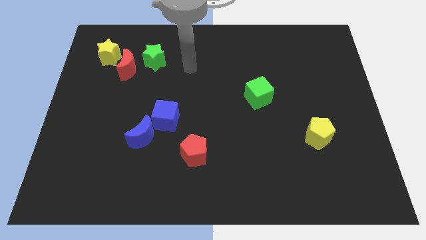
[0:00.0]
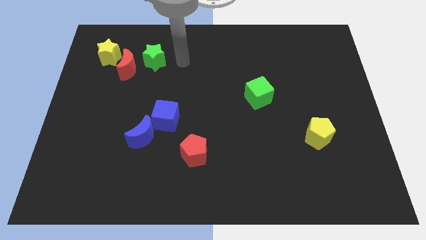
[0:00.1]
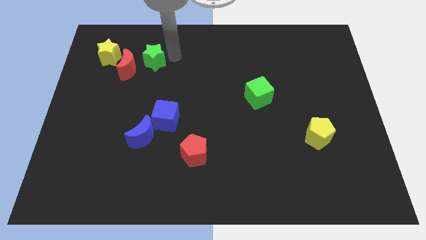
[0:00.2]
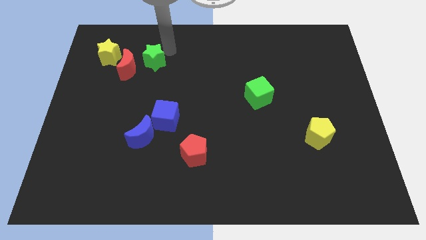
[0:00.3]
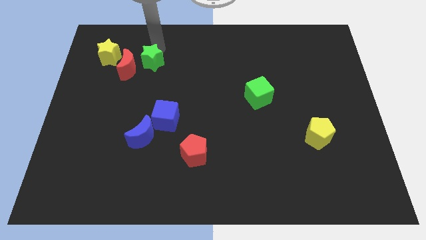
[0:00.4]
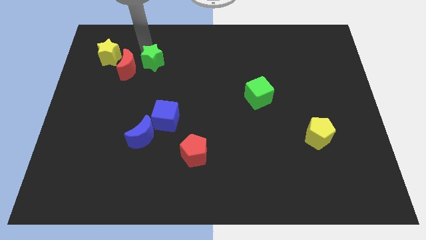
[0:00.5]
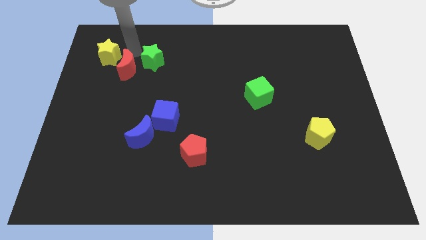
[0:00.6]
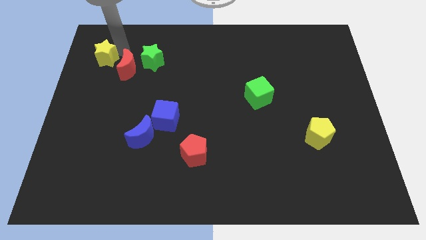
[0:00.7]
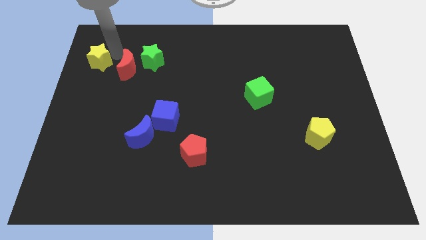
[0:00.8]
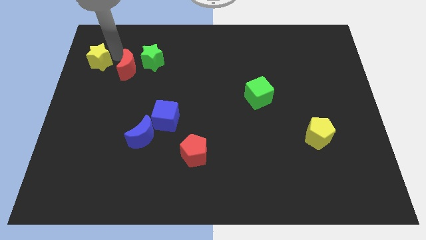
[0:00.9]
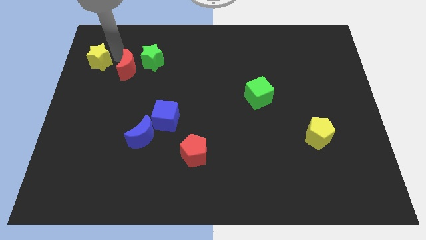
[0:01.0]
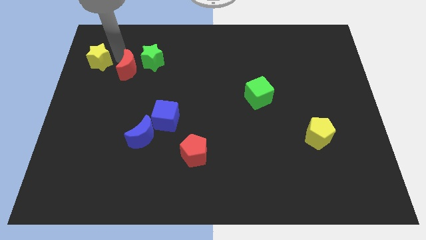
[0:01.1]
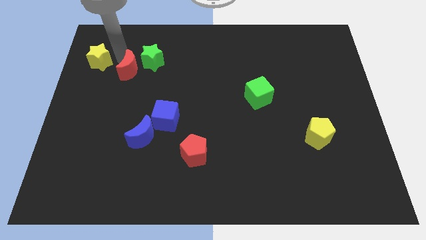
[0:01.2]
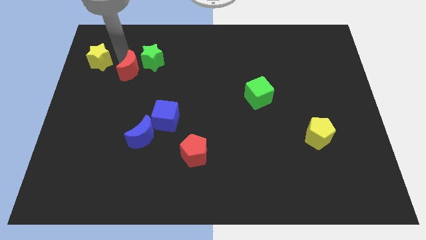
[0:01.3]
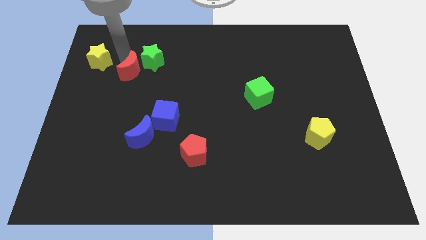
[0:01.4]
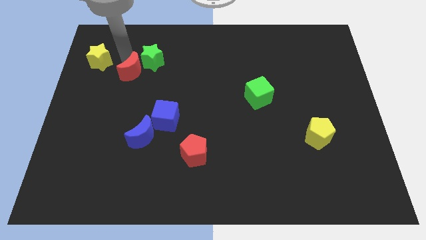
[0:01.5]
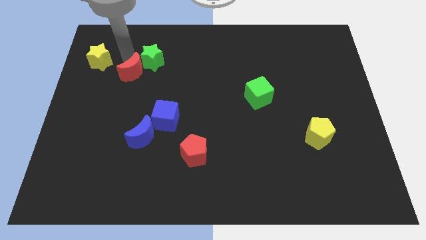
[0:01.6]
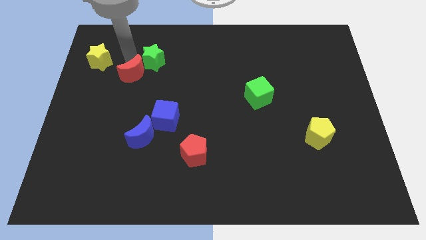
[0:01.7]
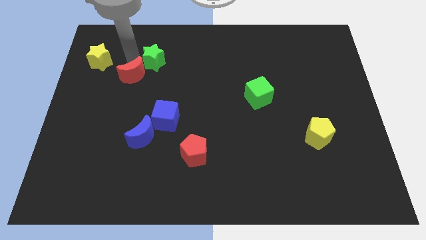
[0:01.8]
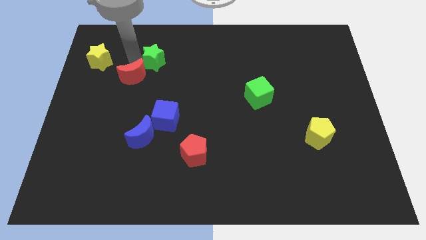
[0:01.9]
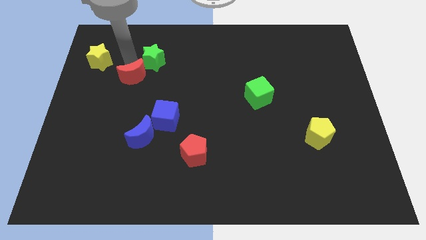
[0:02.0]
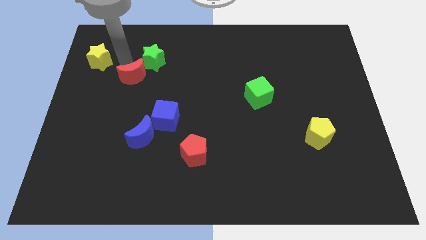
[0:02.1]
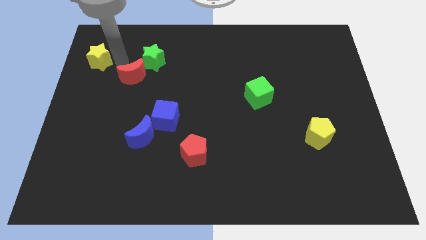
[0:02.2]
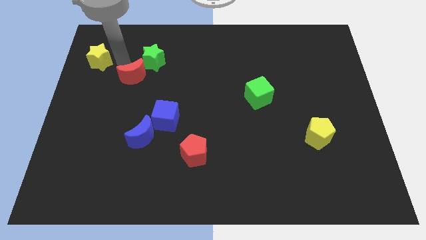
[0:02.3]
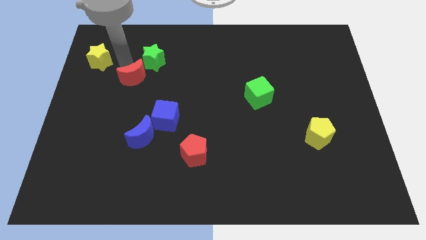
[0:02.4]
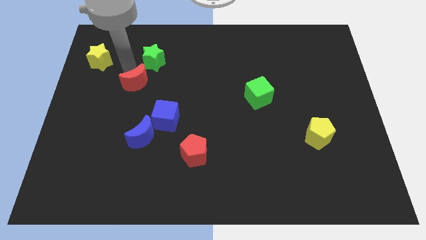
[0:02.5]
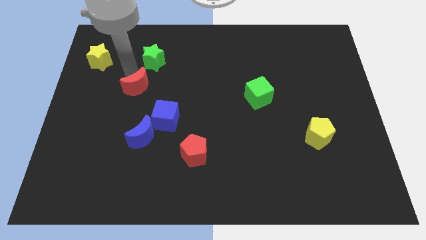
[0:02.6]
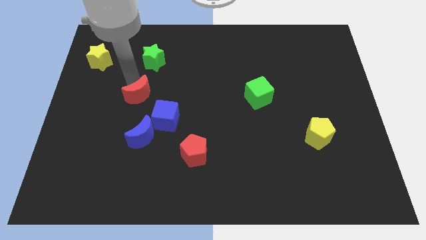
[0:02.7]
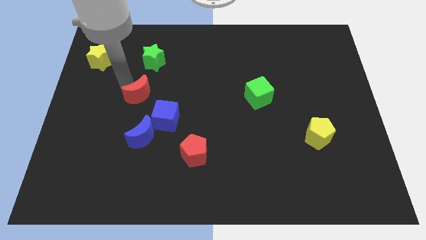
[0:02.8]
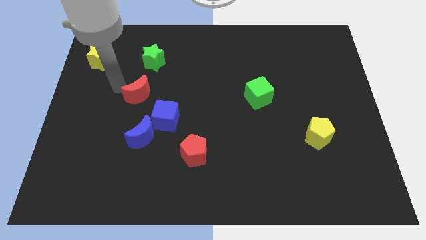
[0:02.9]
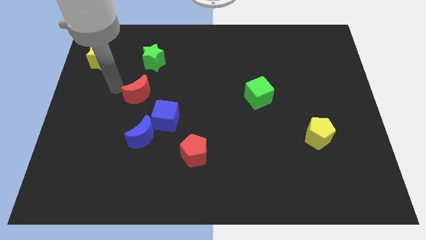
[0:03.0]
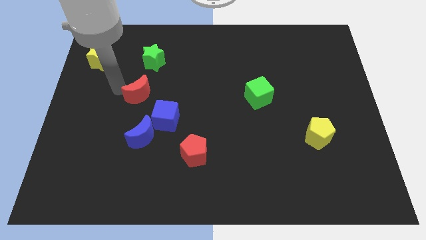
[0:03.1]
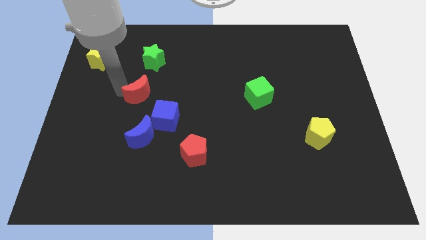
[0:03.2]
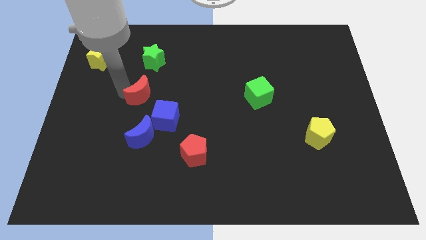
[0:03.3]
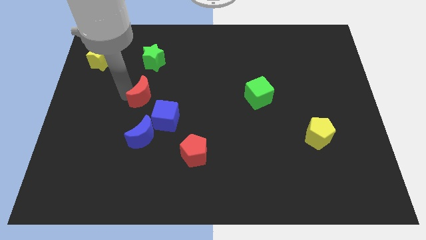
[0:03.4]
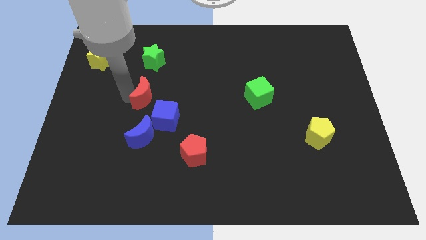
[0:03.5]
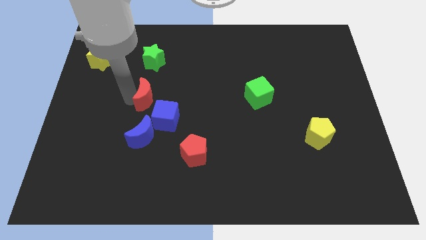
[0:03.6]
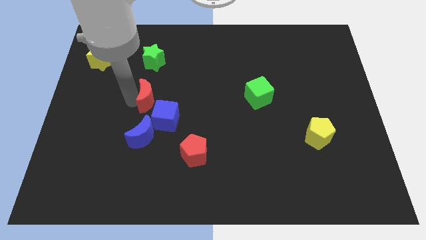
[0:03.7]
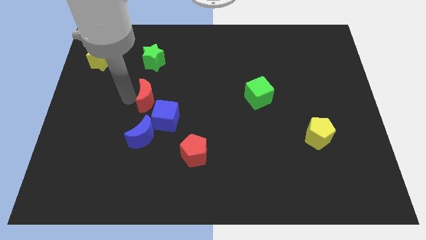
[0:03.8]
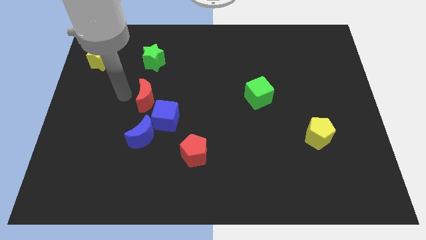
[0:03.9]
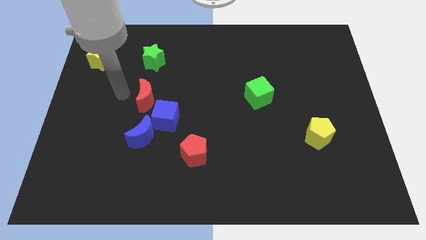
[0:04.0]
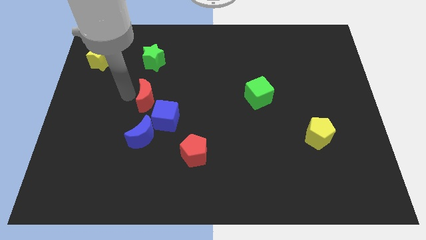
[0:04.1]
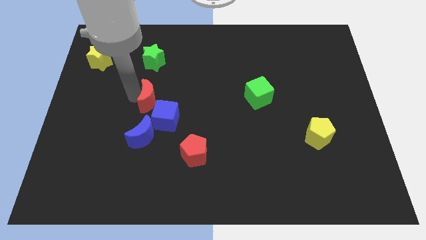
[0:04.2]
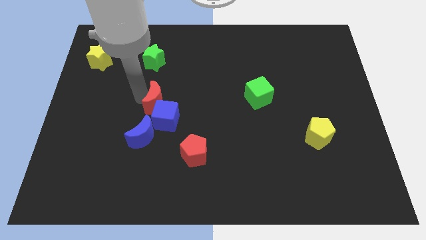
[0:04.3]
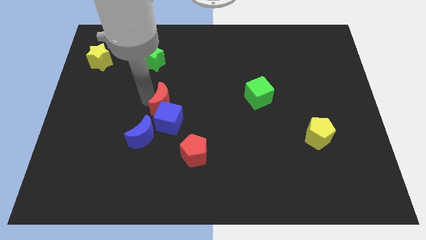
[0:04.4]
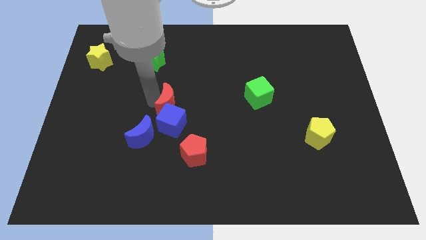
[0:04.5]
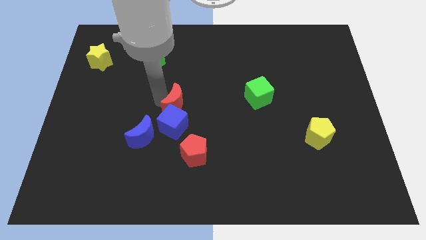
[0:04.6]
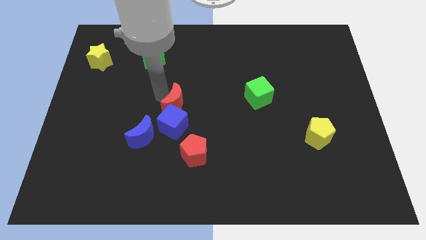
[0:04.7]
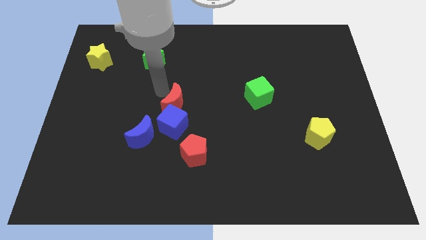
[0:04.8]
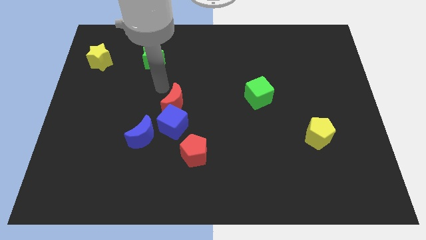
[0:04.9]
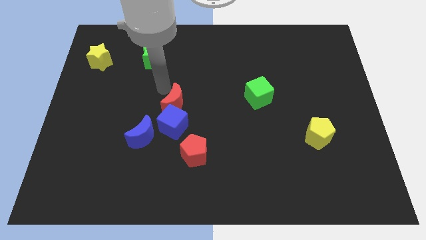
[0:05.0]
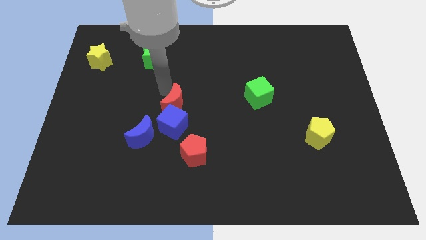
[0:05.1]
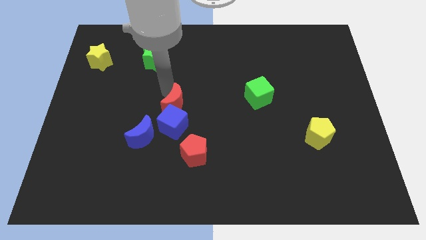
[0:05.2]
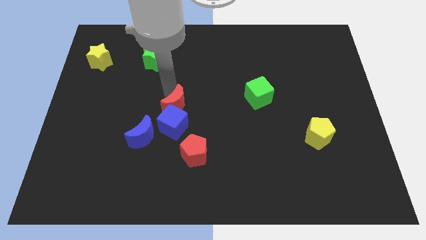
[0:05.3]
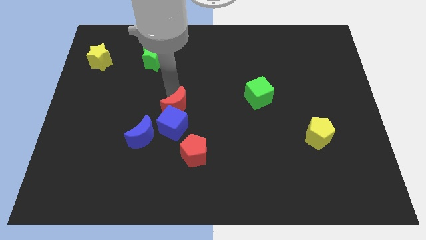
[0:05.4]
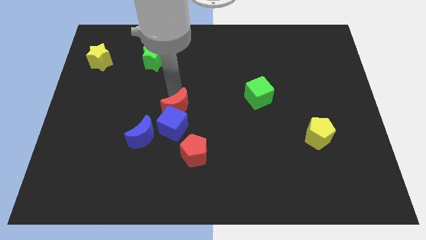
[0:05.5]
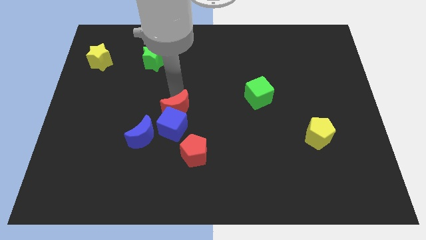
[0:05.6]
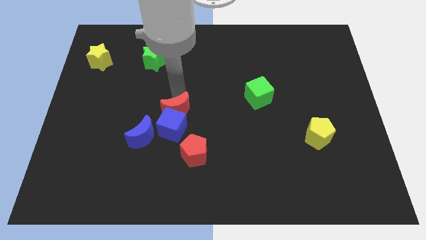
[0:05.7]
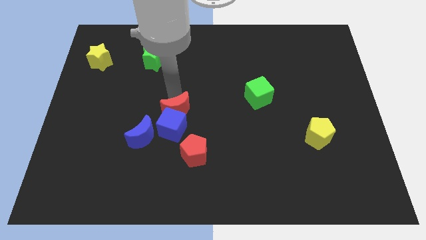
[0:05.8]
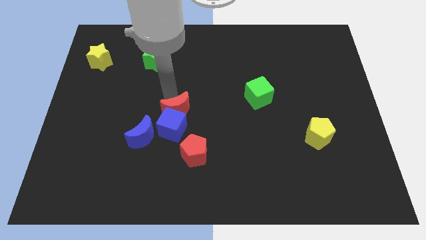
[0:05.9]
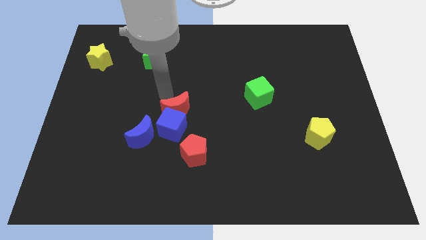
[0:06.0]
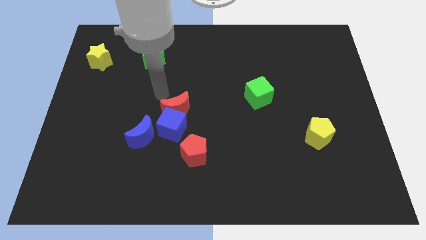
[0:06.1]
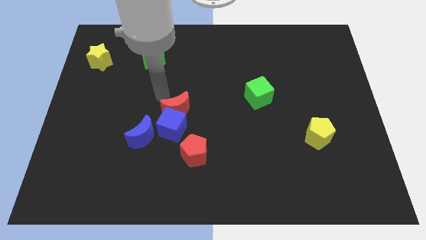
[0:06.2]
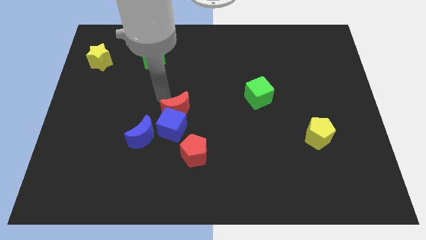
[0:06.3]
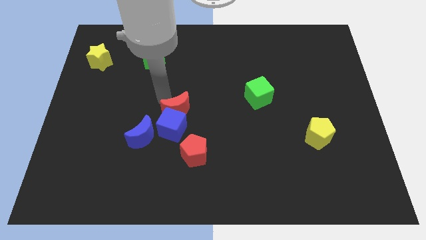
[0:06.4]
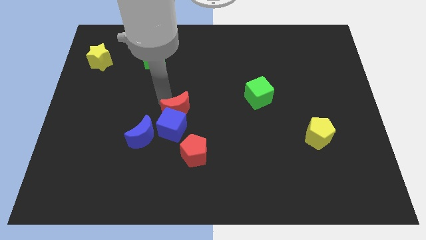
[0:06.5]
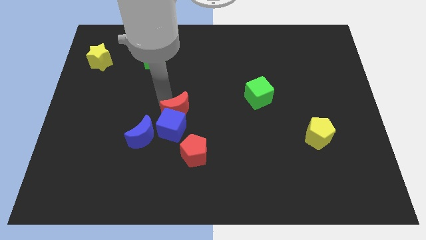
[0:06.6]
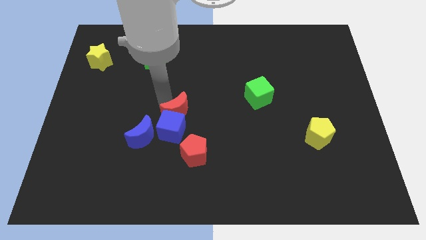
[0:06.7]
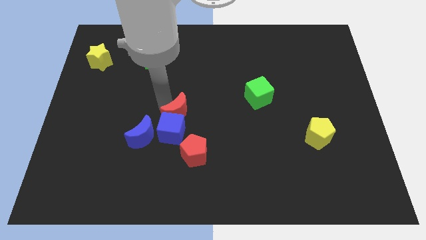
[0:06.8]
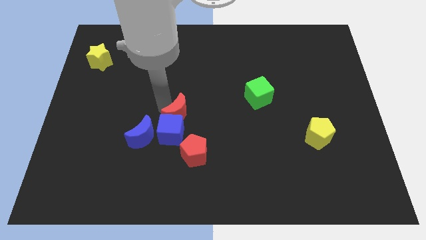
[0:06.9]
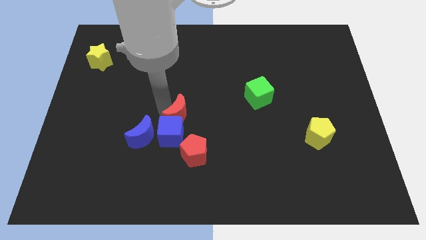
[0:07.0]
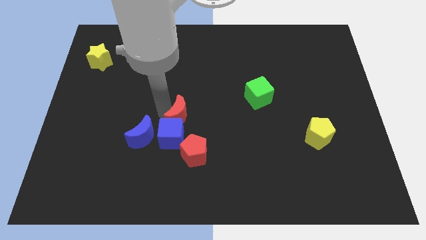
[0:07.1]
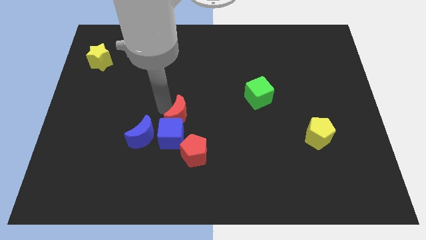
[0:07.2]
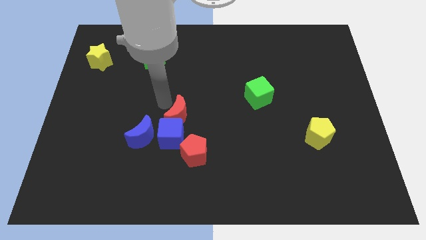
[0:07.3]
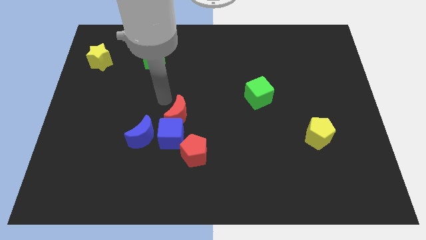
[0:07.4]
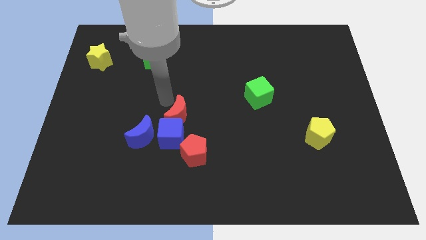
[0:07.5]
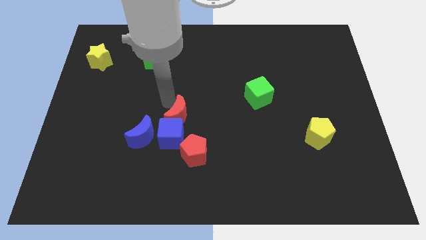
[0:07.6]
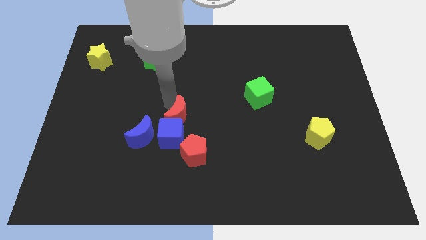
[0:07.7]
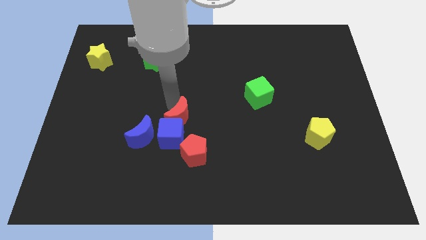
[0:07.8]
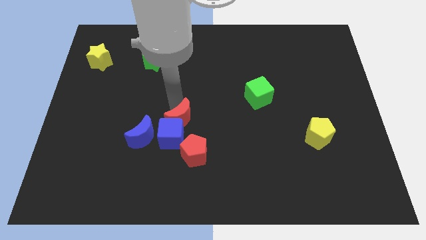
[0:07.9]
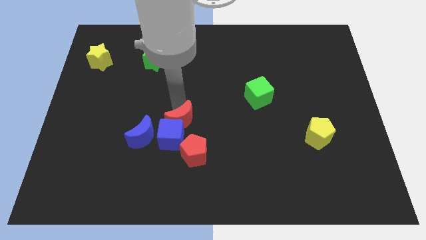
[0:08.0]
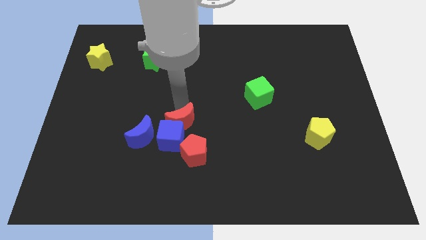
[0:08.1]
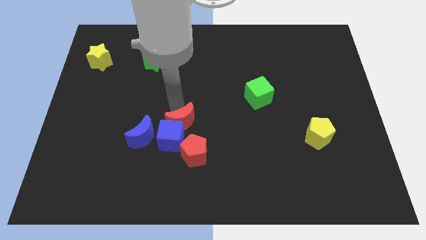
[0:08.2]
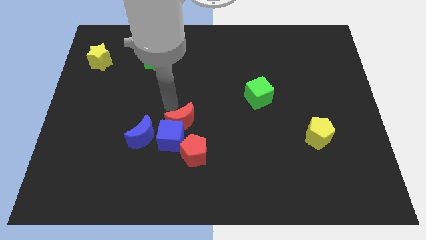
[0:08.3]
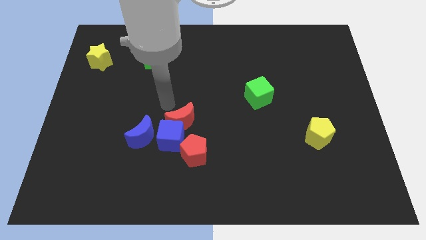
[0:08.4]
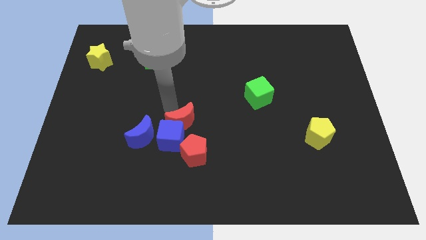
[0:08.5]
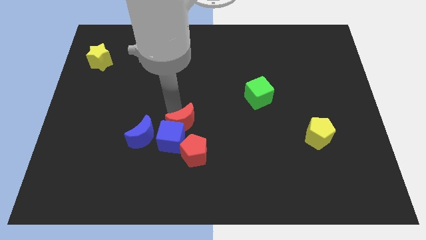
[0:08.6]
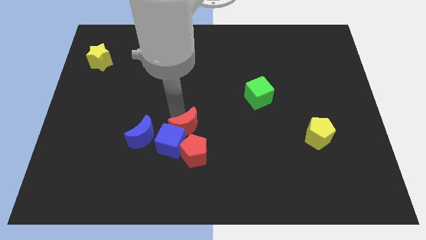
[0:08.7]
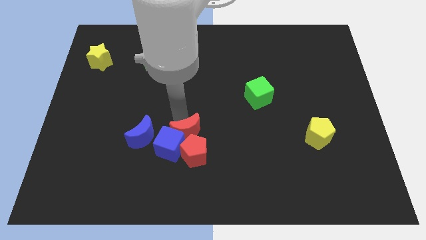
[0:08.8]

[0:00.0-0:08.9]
put the red moon to the red pentagon
